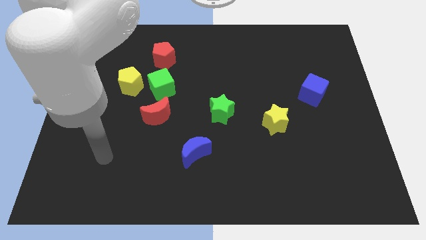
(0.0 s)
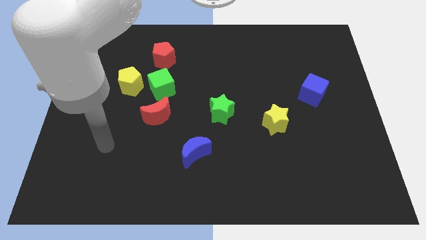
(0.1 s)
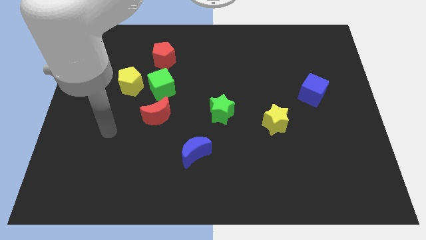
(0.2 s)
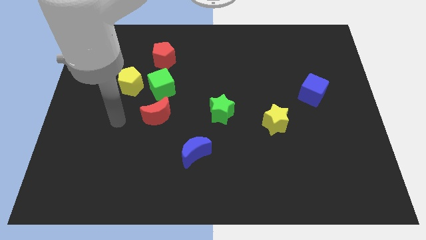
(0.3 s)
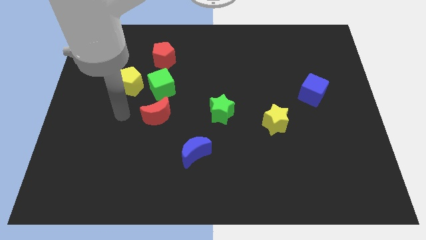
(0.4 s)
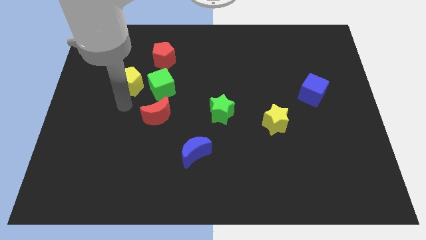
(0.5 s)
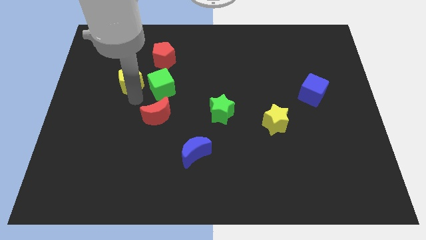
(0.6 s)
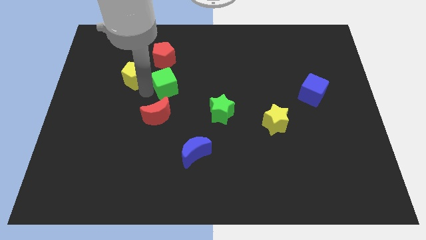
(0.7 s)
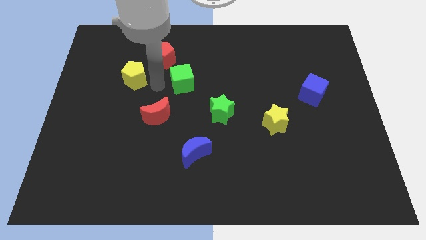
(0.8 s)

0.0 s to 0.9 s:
pull the yellow pentagon apart from the green cube

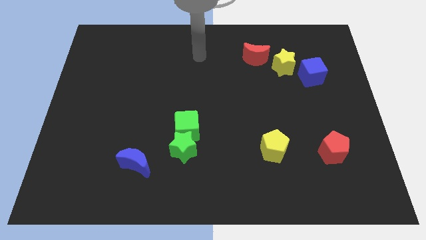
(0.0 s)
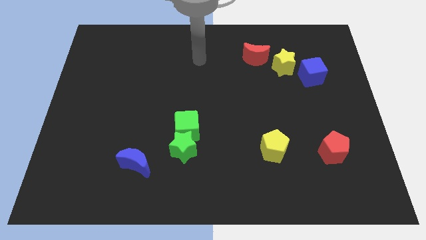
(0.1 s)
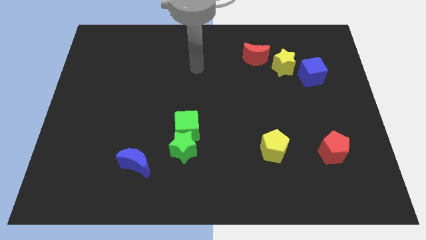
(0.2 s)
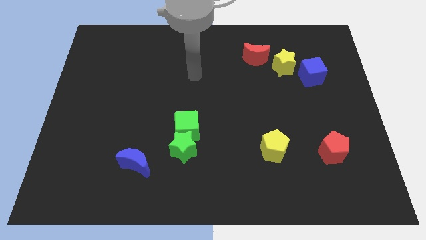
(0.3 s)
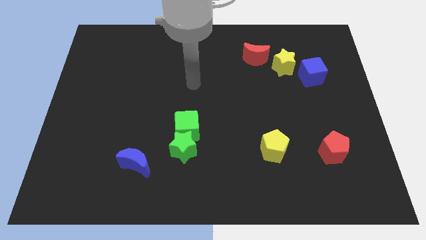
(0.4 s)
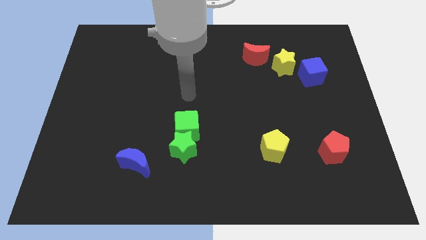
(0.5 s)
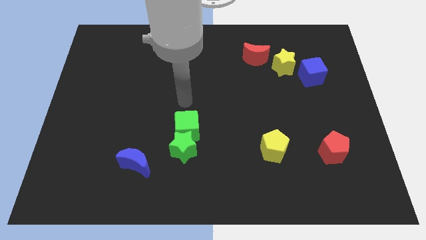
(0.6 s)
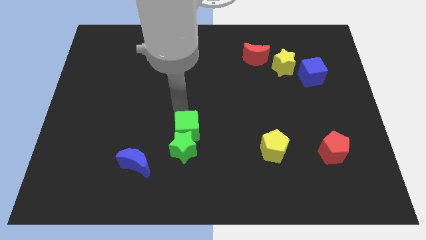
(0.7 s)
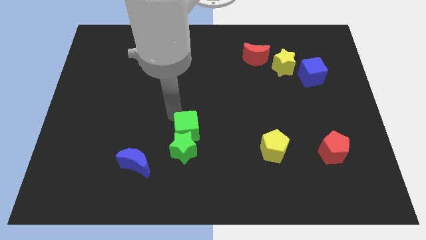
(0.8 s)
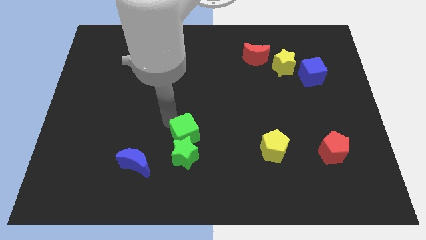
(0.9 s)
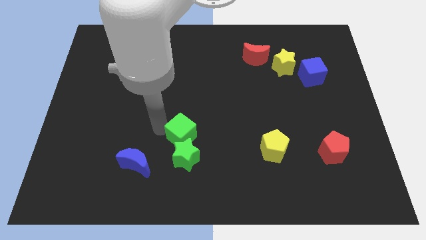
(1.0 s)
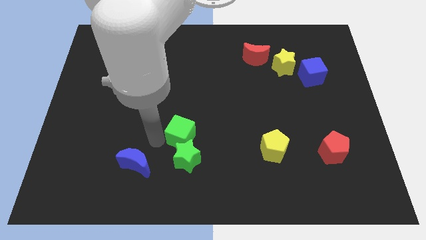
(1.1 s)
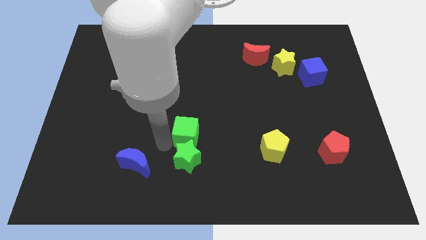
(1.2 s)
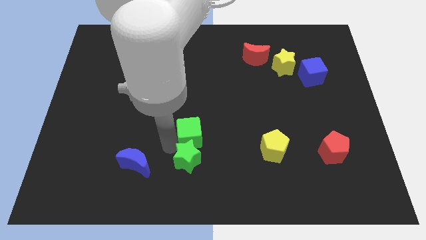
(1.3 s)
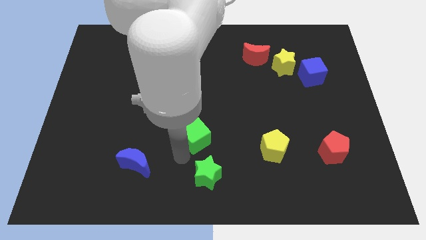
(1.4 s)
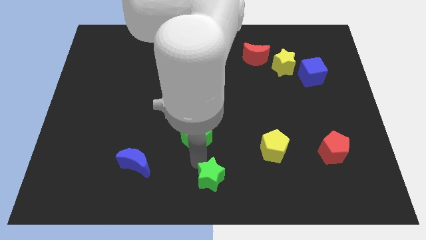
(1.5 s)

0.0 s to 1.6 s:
separate the green cube from the green star

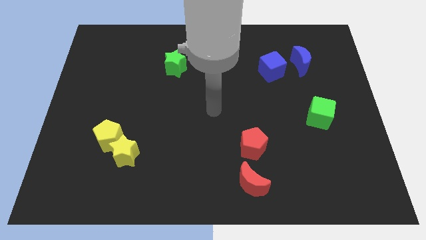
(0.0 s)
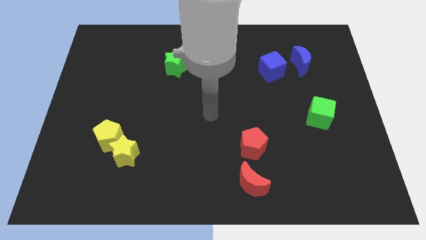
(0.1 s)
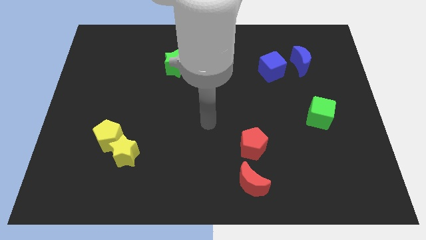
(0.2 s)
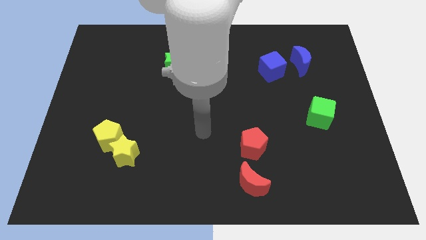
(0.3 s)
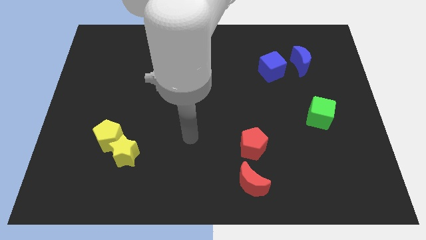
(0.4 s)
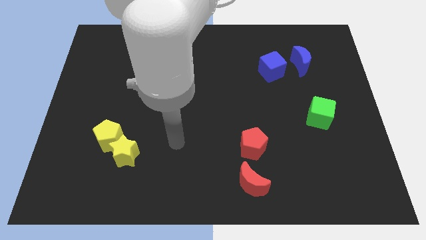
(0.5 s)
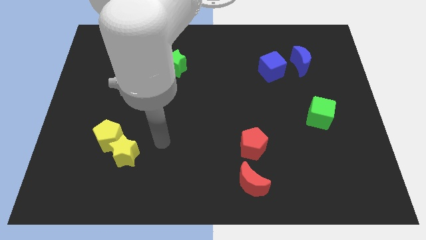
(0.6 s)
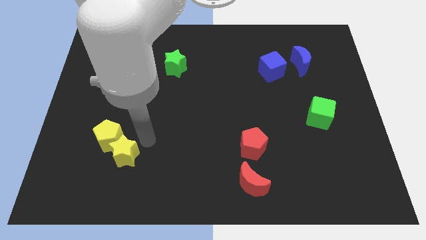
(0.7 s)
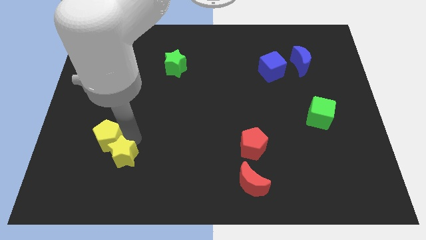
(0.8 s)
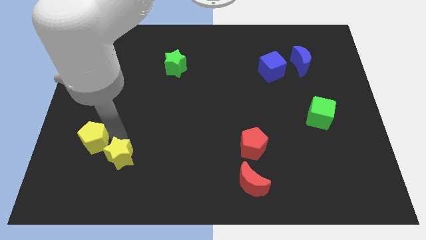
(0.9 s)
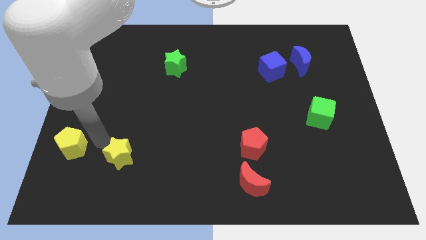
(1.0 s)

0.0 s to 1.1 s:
pull the yellow star apart from the yellow pentagon

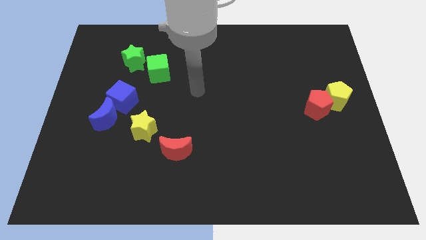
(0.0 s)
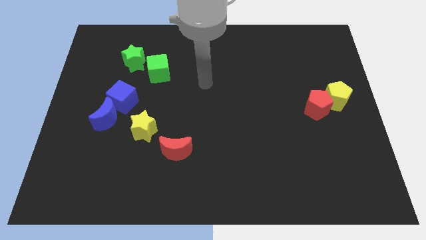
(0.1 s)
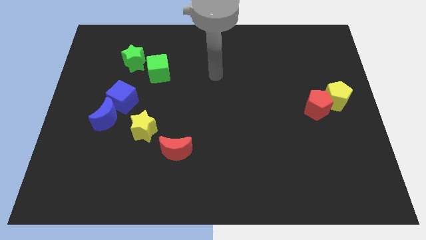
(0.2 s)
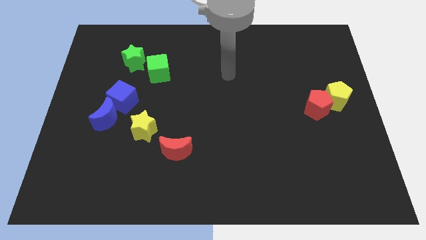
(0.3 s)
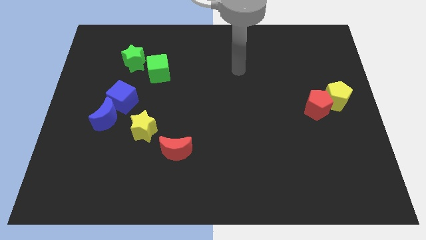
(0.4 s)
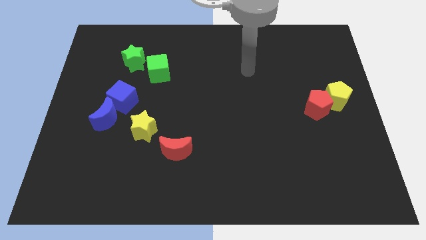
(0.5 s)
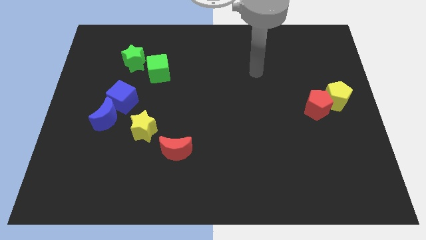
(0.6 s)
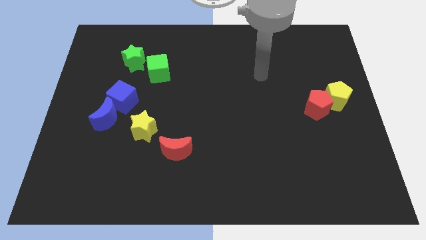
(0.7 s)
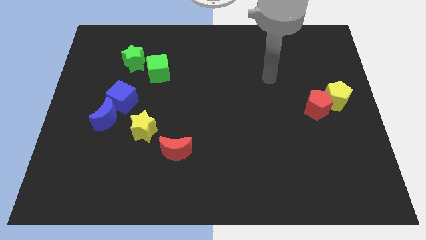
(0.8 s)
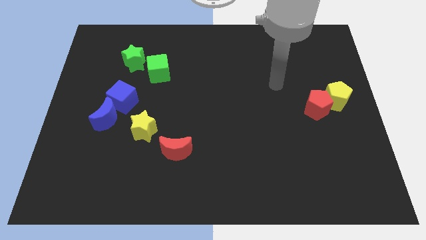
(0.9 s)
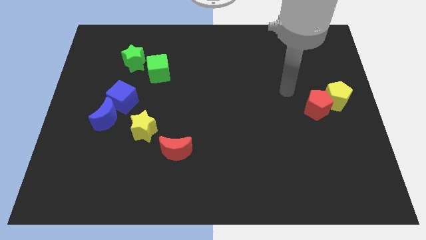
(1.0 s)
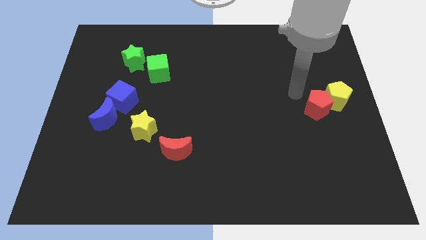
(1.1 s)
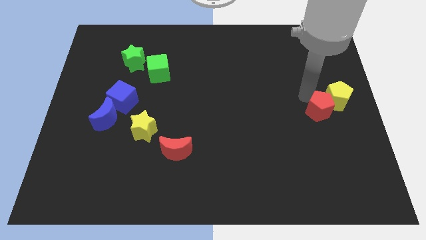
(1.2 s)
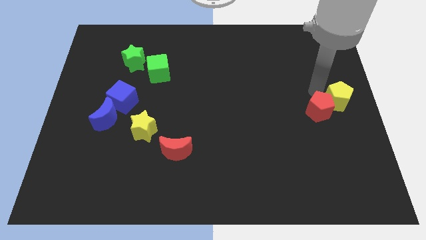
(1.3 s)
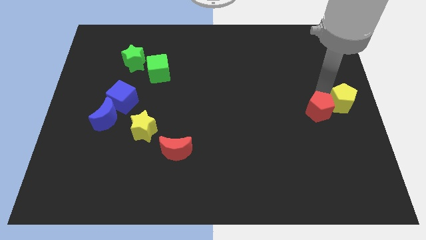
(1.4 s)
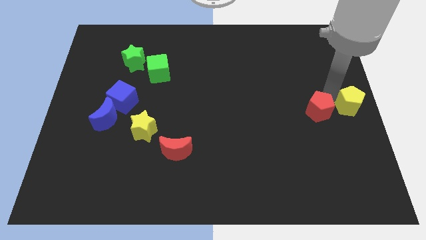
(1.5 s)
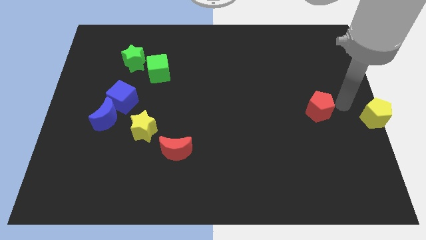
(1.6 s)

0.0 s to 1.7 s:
move the red pentagon away from the yellow pentagon

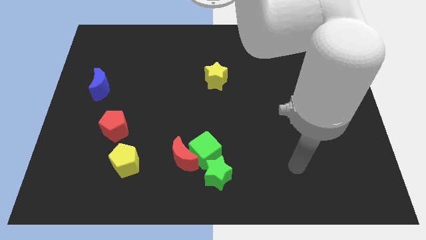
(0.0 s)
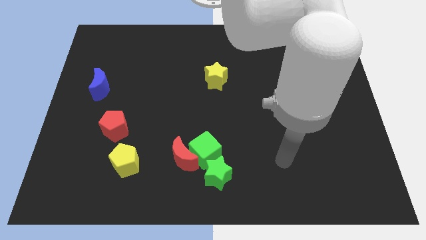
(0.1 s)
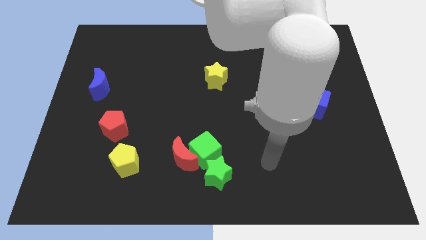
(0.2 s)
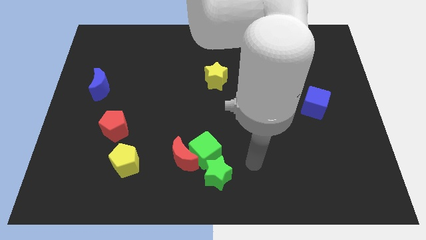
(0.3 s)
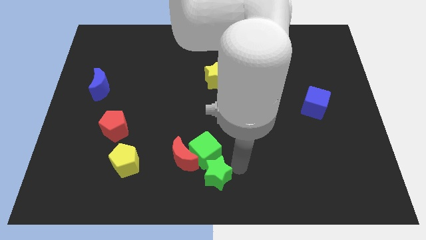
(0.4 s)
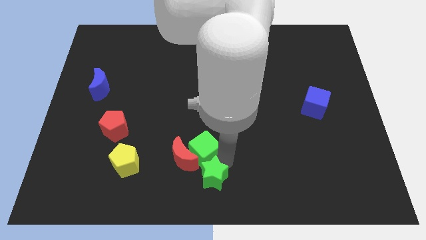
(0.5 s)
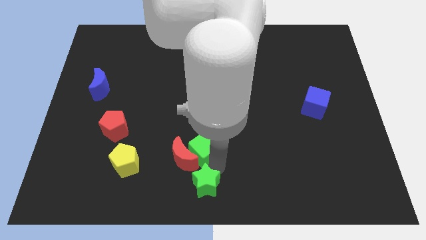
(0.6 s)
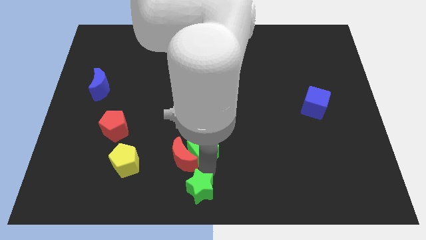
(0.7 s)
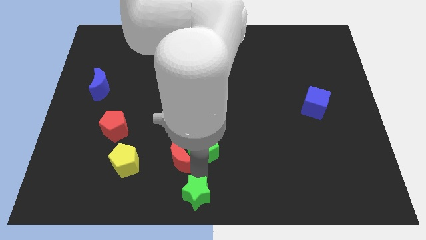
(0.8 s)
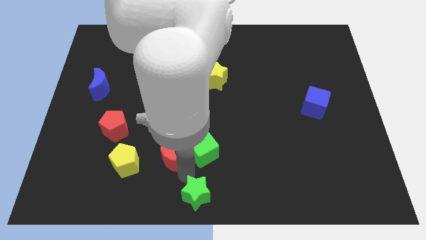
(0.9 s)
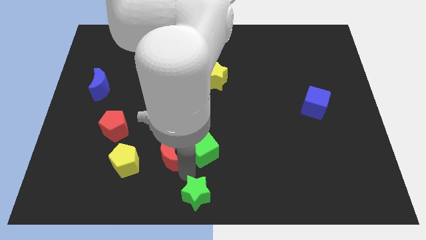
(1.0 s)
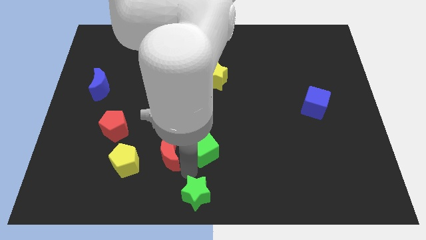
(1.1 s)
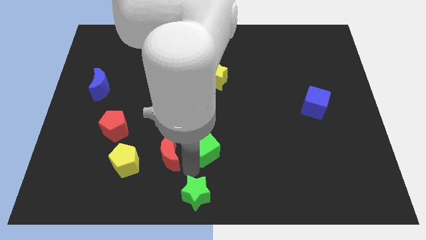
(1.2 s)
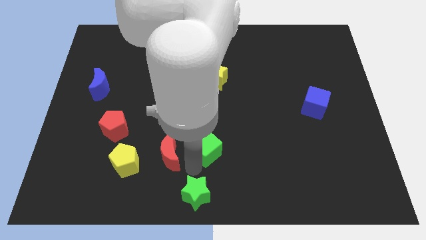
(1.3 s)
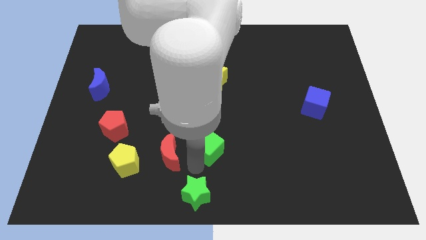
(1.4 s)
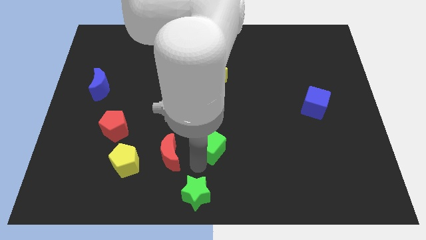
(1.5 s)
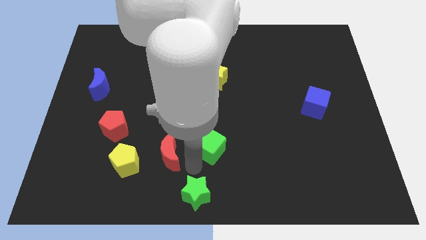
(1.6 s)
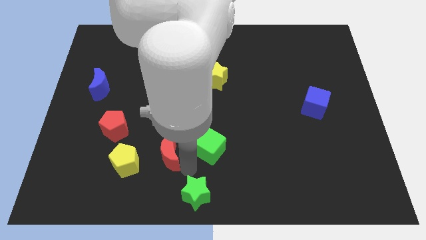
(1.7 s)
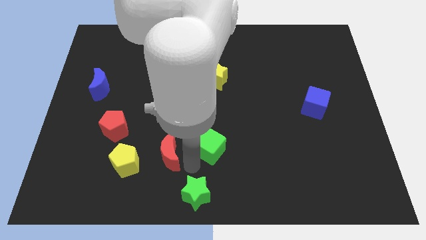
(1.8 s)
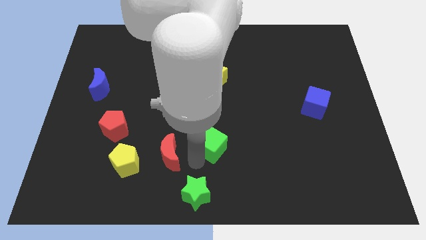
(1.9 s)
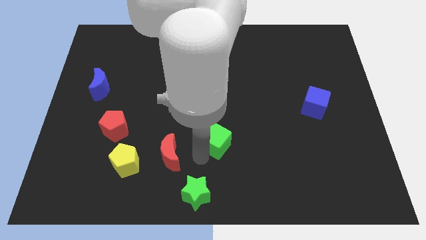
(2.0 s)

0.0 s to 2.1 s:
move the green cube away from the red moon and green star

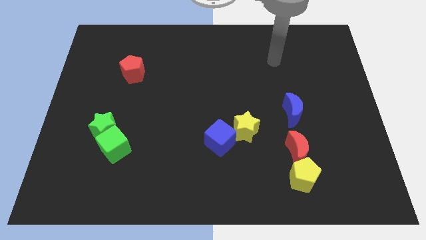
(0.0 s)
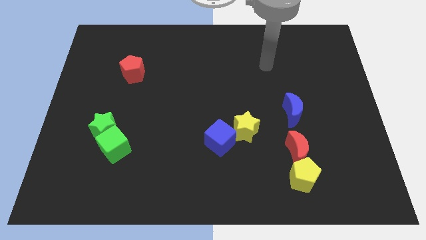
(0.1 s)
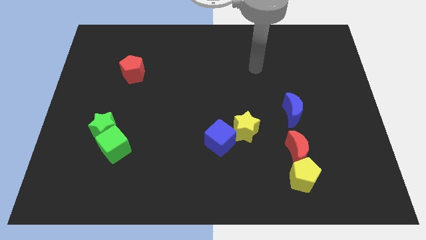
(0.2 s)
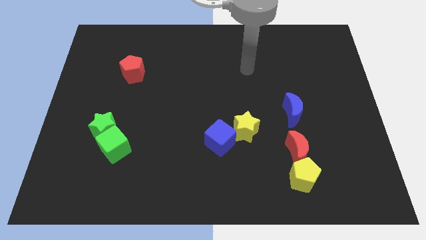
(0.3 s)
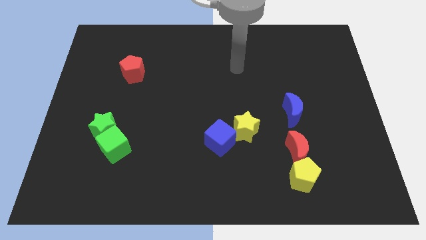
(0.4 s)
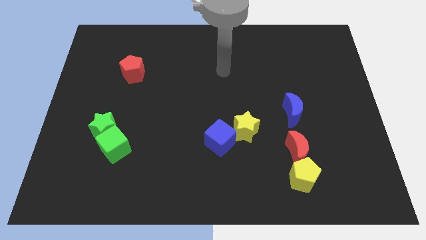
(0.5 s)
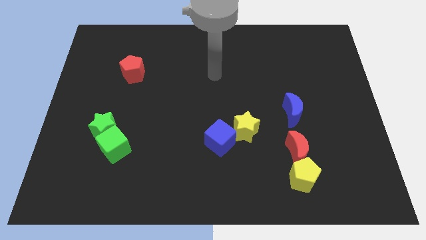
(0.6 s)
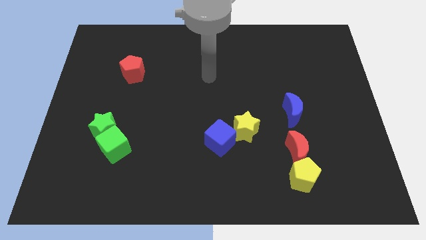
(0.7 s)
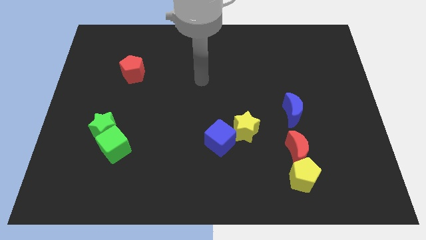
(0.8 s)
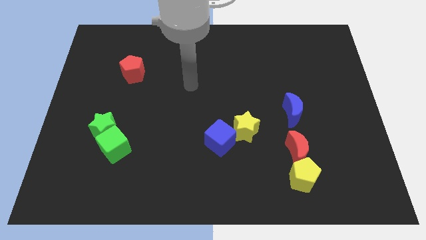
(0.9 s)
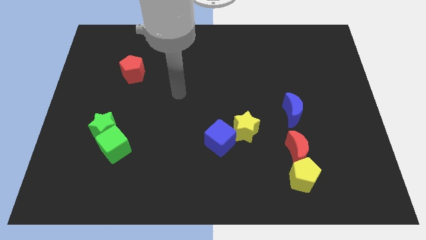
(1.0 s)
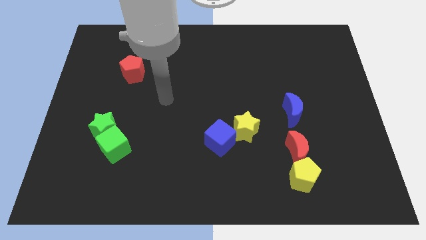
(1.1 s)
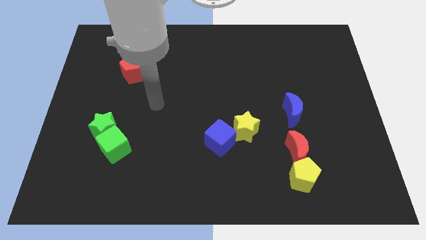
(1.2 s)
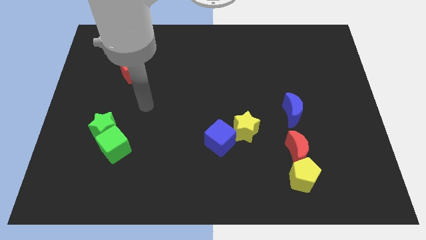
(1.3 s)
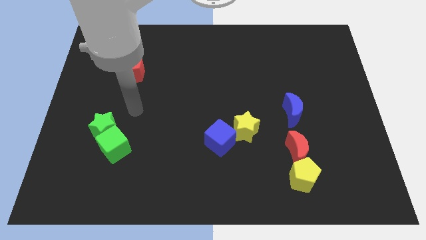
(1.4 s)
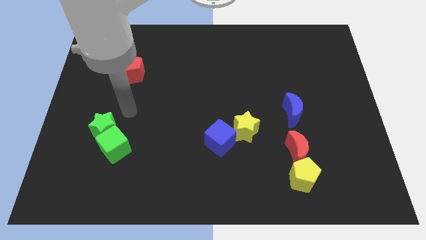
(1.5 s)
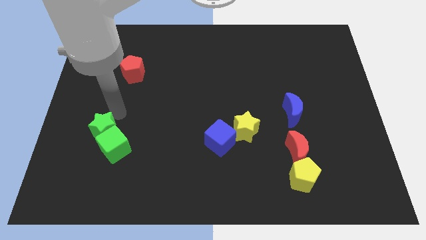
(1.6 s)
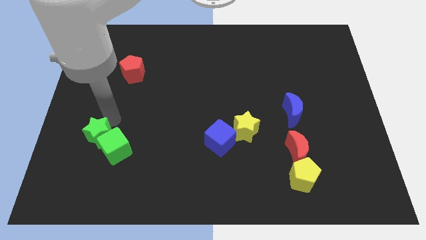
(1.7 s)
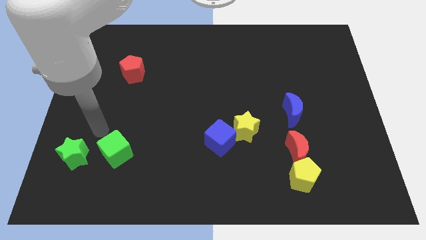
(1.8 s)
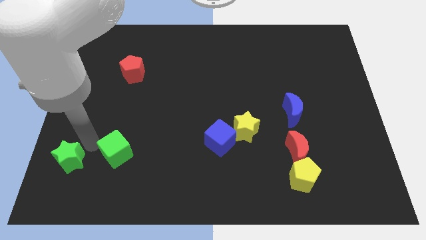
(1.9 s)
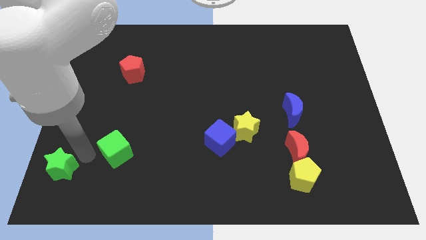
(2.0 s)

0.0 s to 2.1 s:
pull the green cube apart from the green star
